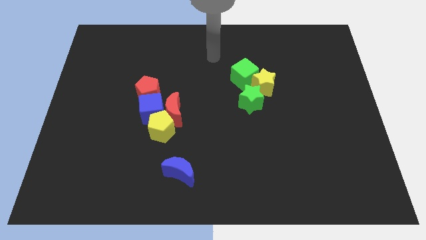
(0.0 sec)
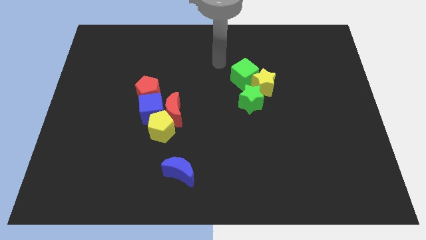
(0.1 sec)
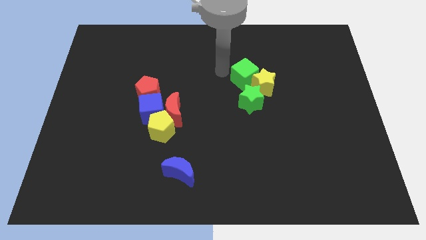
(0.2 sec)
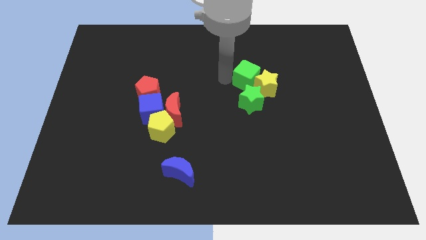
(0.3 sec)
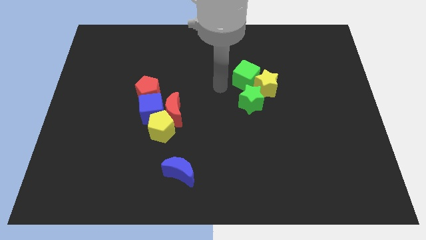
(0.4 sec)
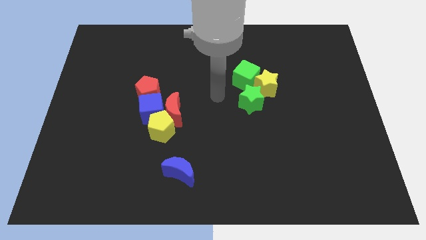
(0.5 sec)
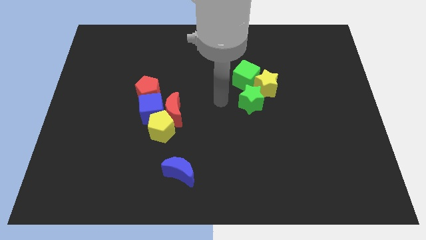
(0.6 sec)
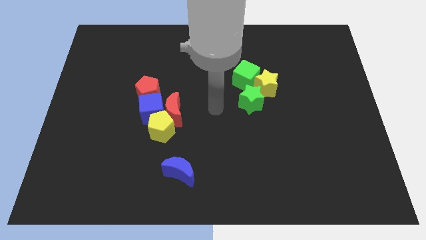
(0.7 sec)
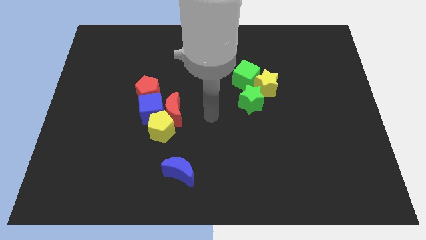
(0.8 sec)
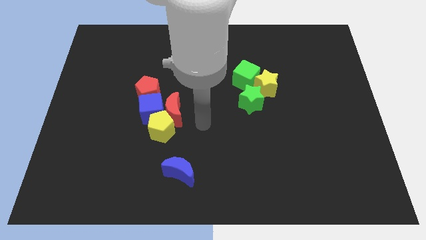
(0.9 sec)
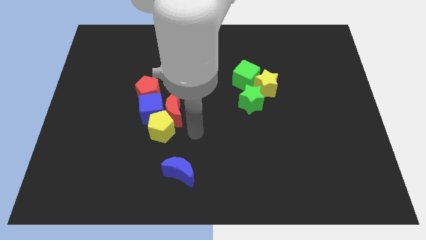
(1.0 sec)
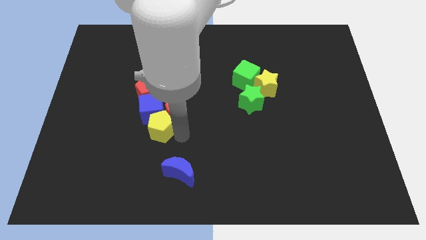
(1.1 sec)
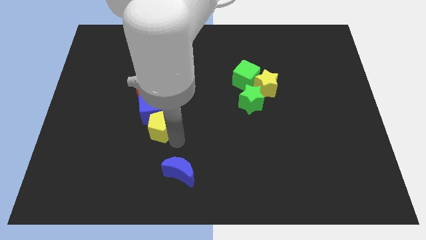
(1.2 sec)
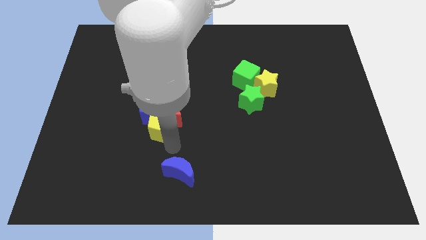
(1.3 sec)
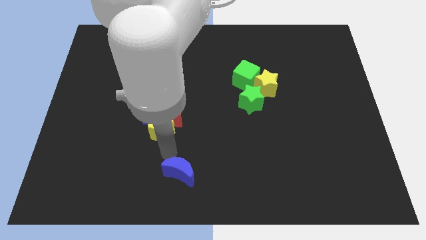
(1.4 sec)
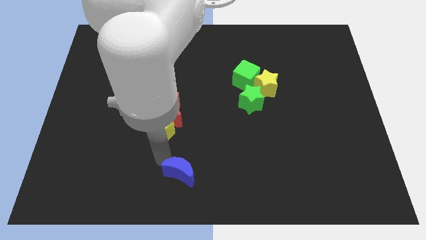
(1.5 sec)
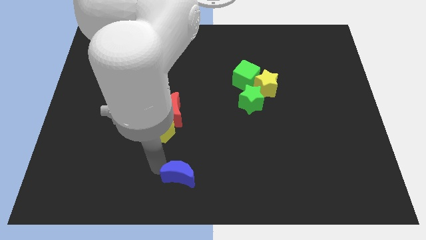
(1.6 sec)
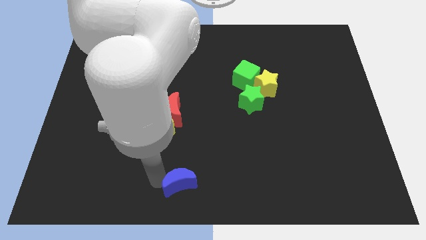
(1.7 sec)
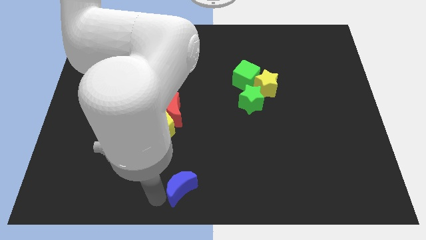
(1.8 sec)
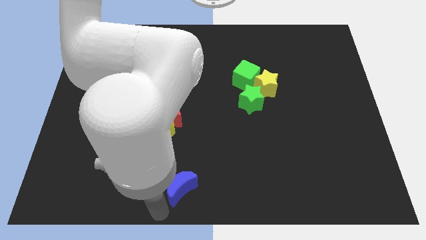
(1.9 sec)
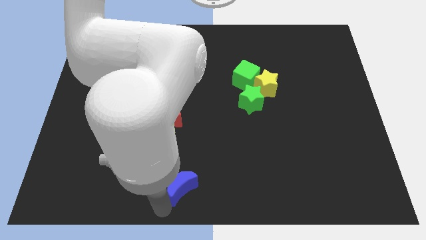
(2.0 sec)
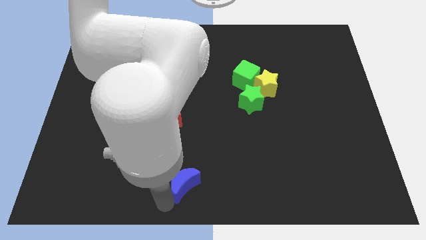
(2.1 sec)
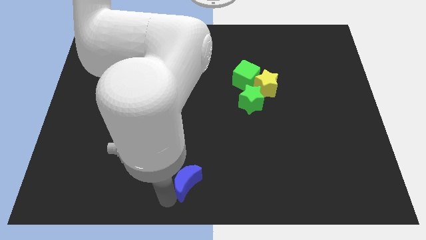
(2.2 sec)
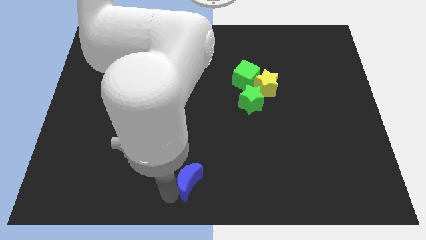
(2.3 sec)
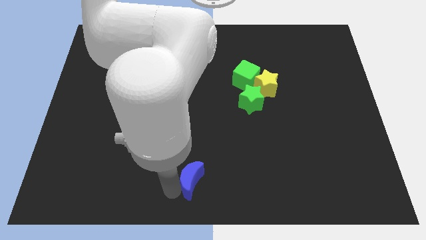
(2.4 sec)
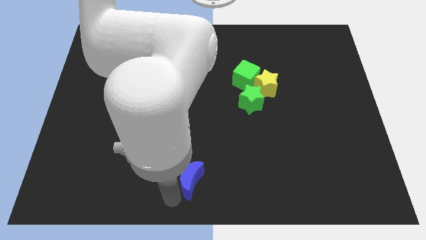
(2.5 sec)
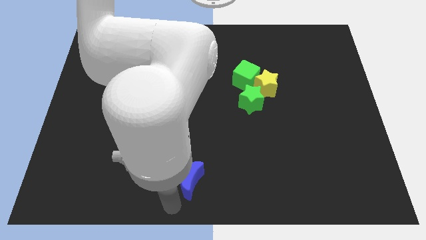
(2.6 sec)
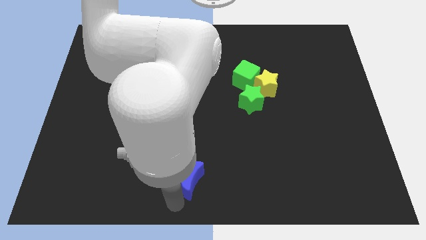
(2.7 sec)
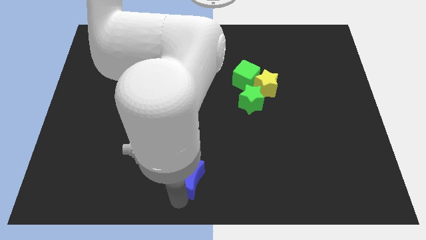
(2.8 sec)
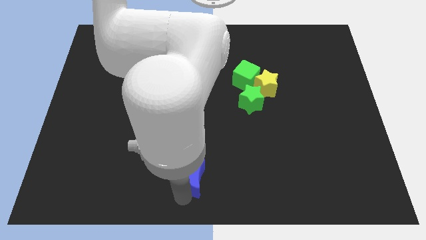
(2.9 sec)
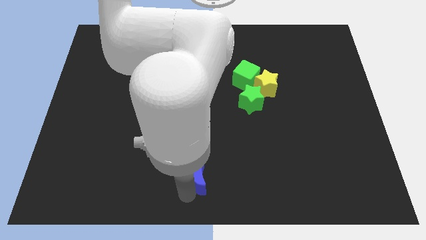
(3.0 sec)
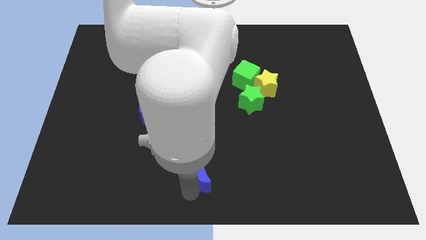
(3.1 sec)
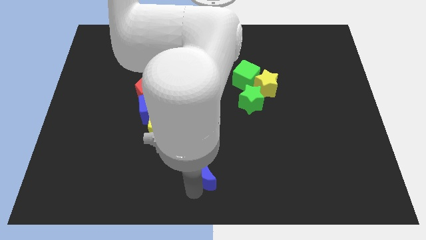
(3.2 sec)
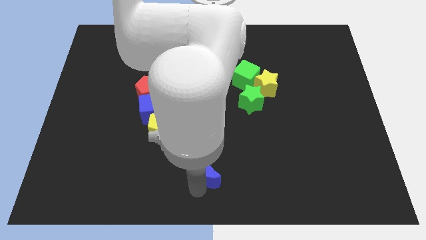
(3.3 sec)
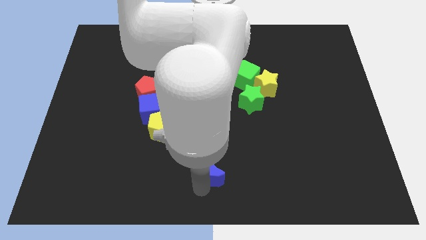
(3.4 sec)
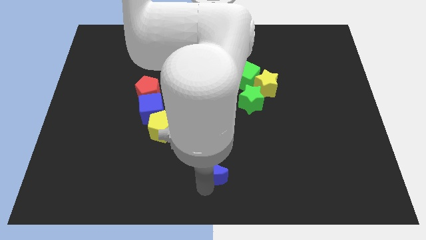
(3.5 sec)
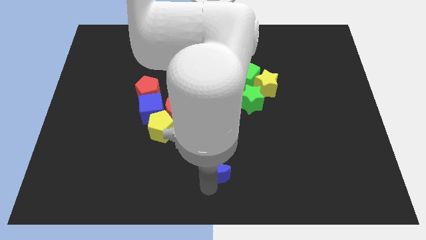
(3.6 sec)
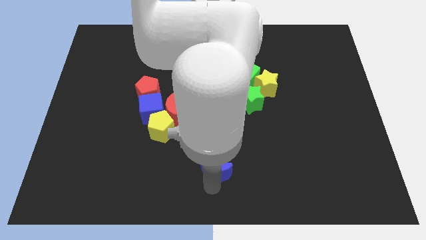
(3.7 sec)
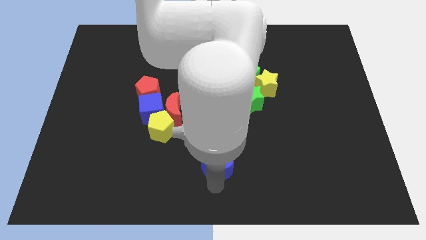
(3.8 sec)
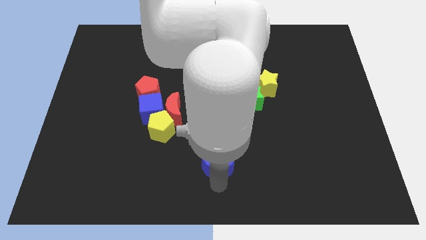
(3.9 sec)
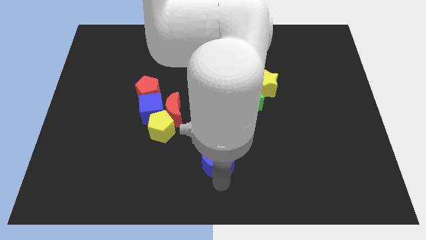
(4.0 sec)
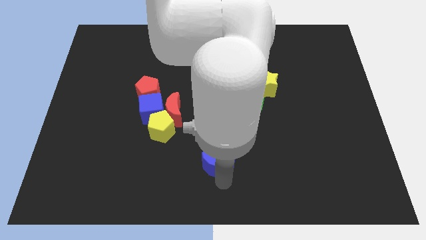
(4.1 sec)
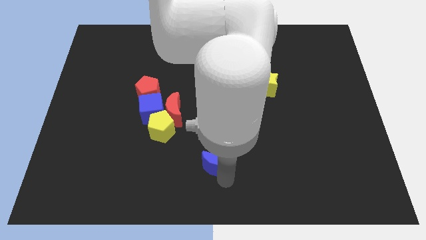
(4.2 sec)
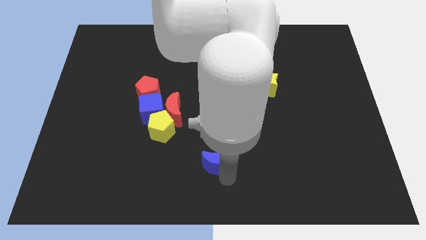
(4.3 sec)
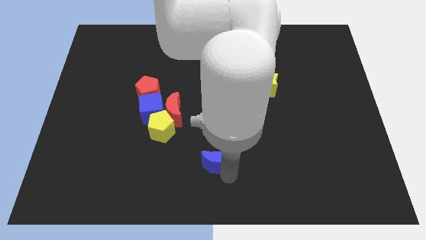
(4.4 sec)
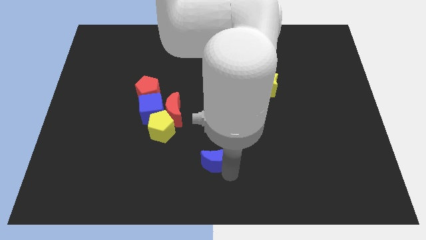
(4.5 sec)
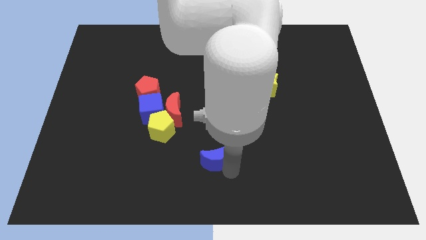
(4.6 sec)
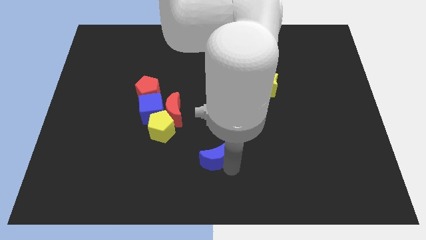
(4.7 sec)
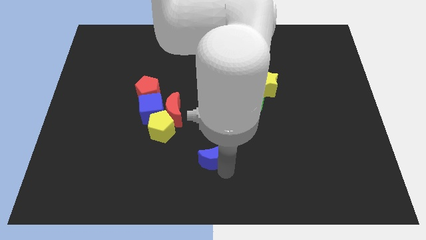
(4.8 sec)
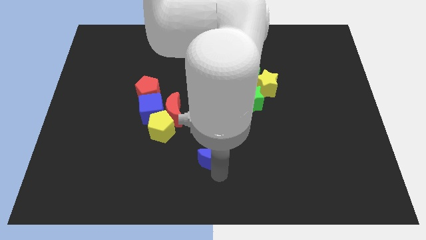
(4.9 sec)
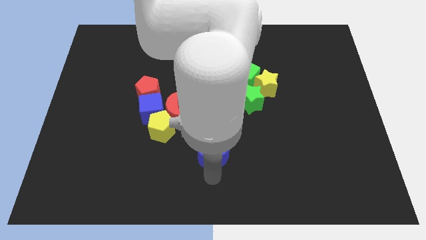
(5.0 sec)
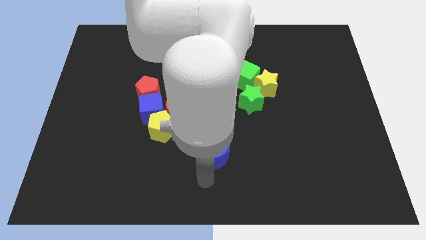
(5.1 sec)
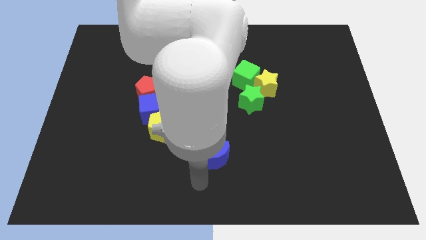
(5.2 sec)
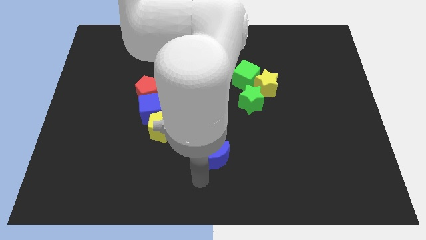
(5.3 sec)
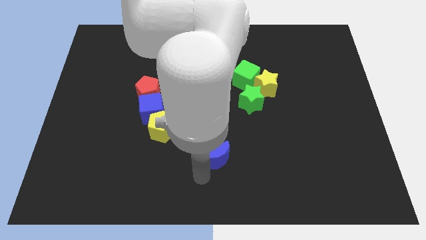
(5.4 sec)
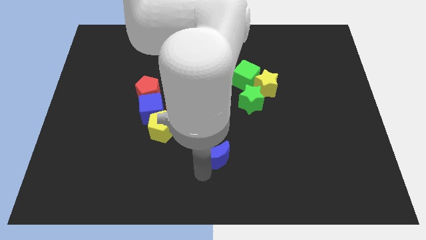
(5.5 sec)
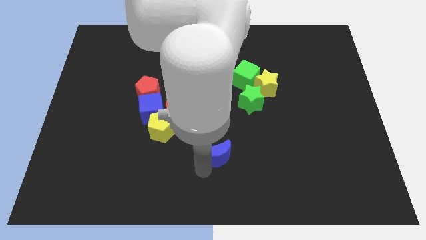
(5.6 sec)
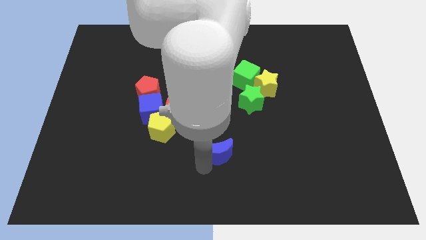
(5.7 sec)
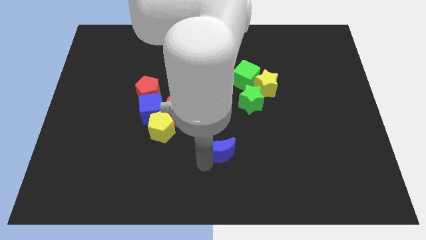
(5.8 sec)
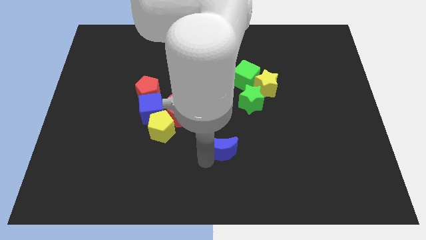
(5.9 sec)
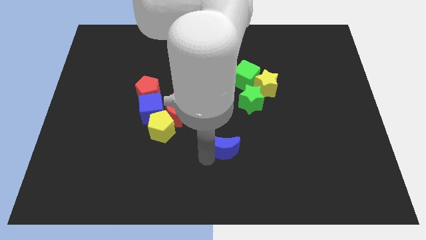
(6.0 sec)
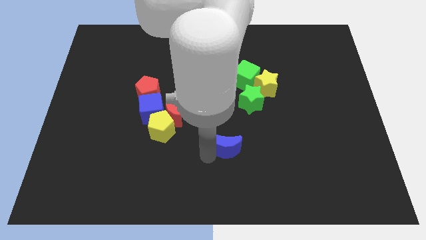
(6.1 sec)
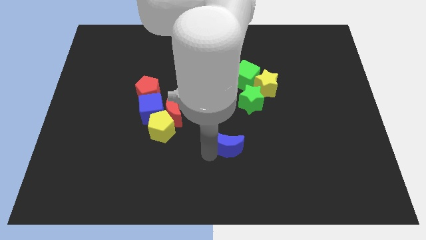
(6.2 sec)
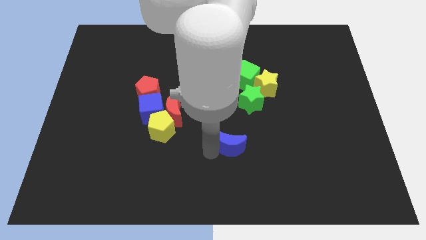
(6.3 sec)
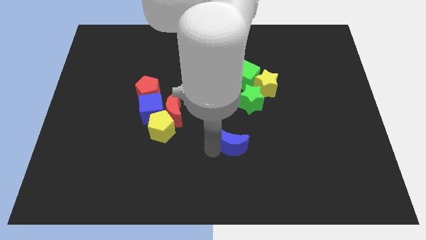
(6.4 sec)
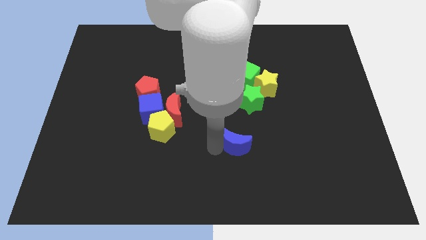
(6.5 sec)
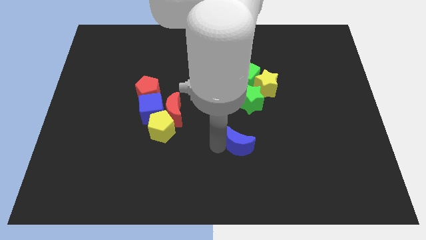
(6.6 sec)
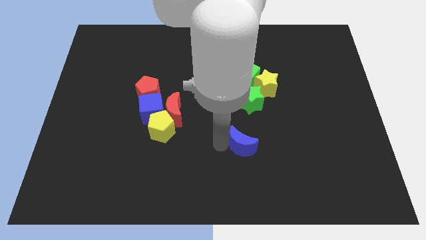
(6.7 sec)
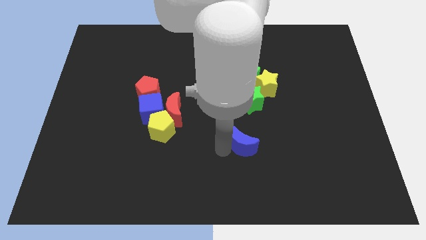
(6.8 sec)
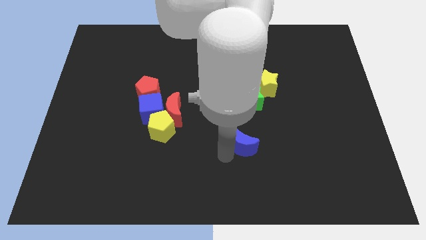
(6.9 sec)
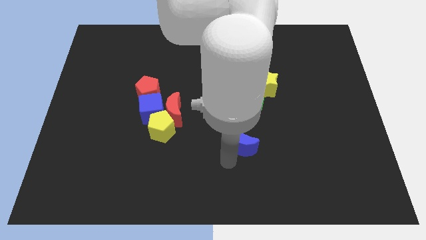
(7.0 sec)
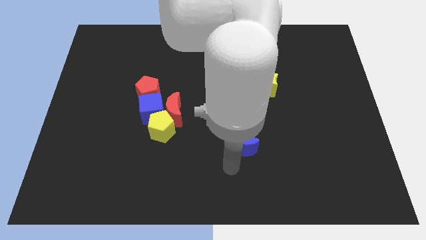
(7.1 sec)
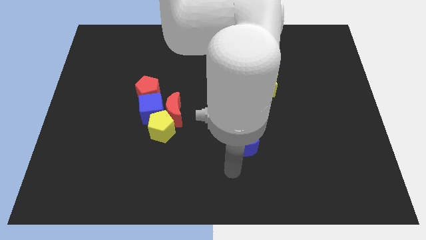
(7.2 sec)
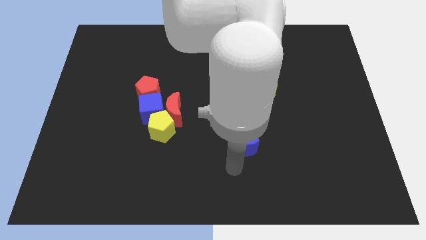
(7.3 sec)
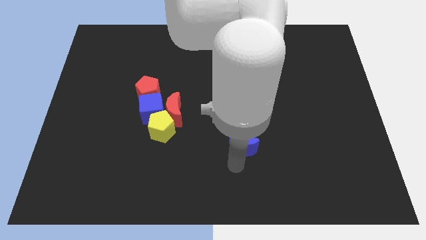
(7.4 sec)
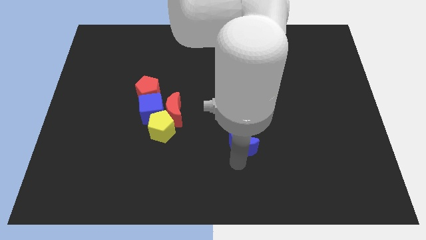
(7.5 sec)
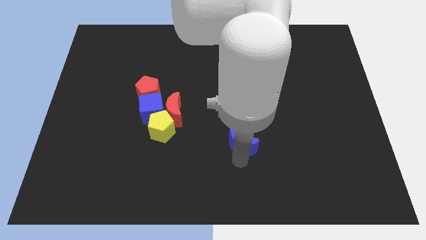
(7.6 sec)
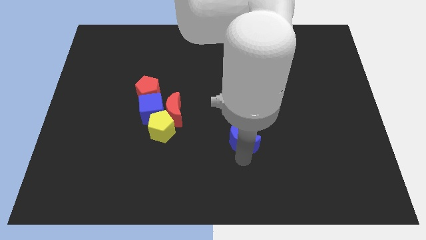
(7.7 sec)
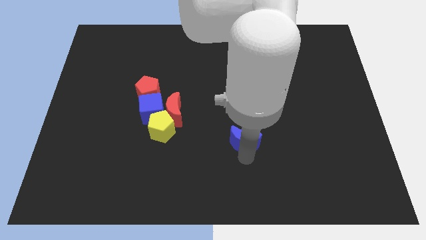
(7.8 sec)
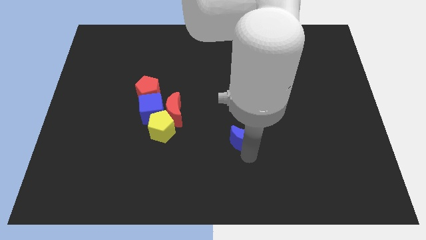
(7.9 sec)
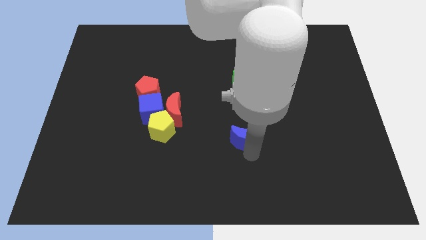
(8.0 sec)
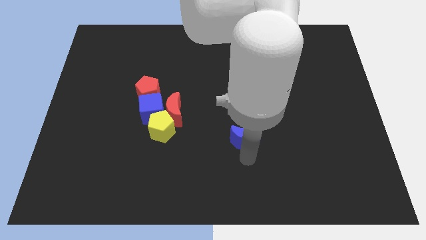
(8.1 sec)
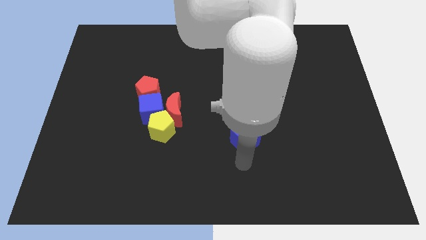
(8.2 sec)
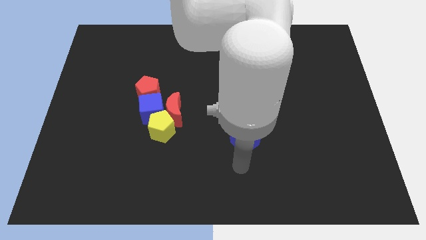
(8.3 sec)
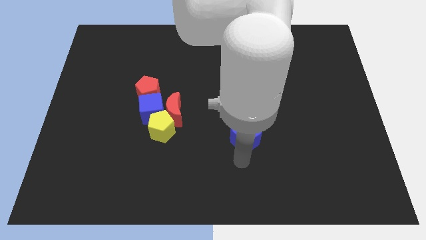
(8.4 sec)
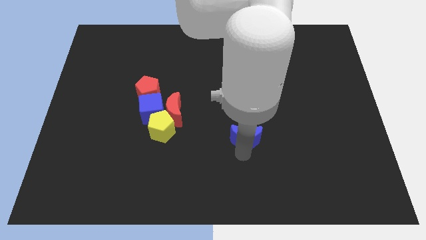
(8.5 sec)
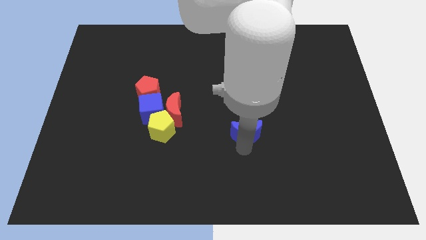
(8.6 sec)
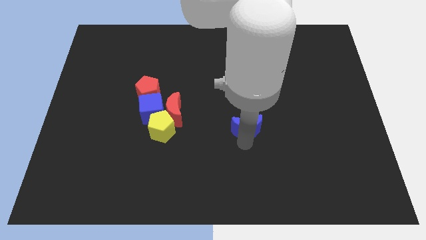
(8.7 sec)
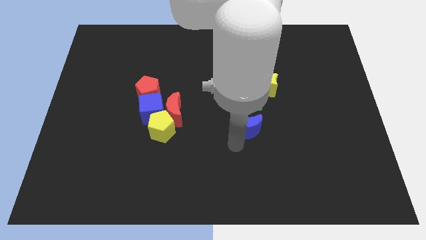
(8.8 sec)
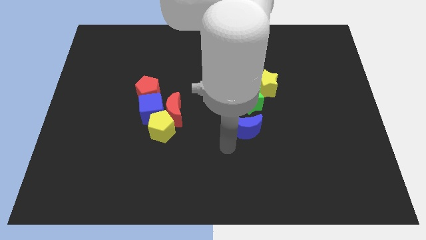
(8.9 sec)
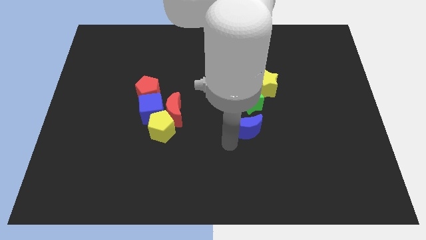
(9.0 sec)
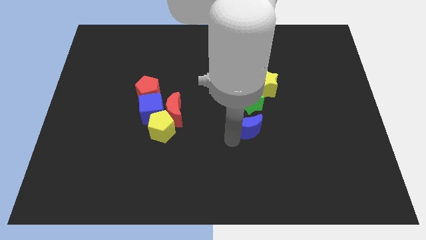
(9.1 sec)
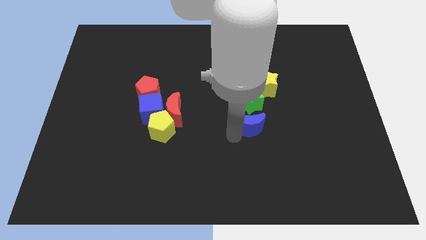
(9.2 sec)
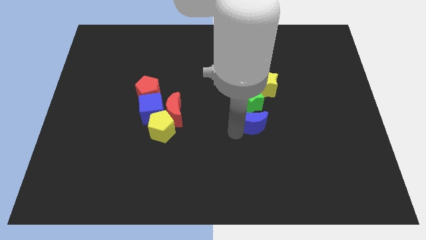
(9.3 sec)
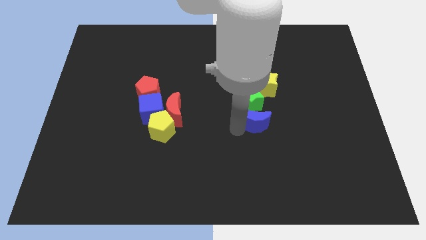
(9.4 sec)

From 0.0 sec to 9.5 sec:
slide the blue moon upwards and then right
